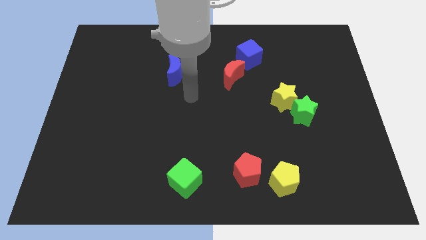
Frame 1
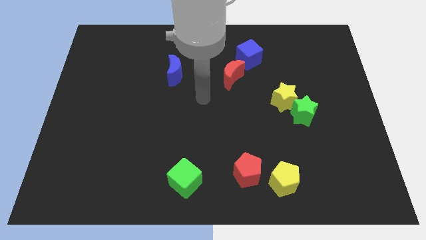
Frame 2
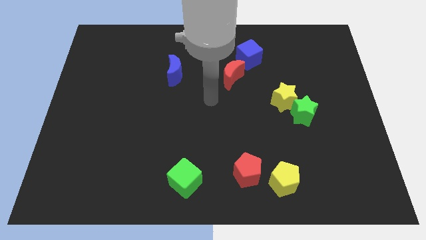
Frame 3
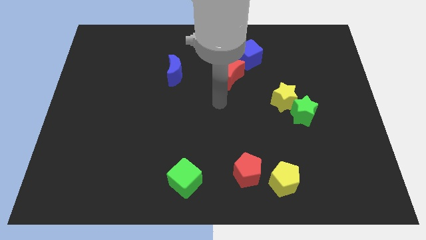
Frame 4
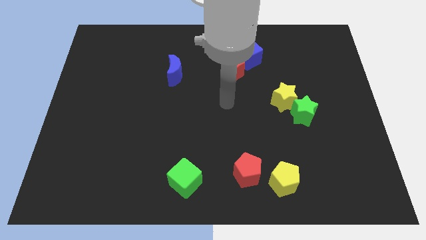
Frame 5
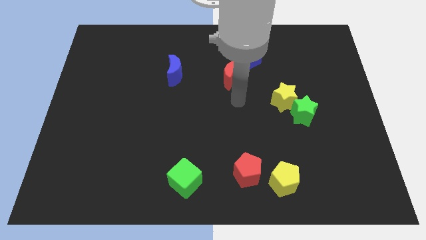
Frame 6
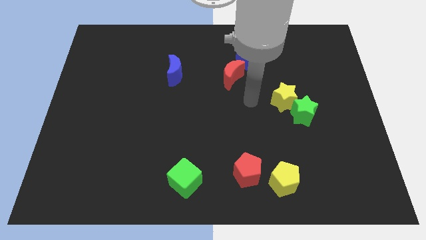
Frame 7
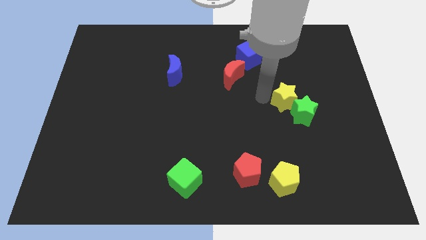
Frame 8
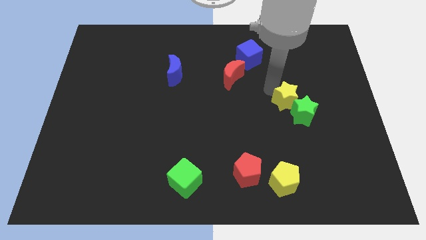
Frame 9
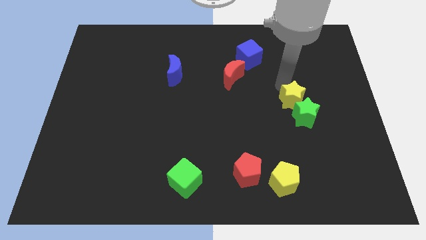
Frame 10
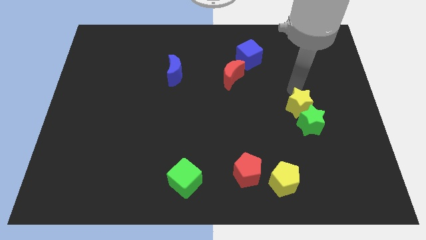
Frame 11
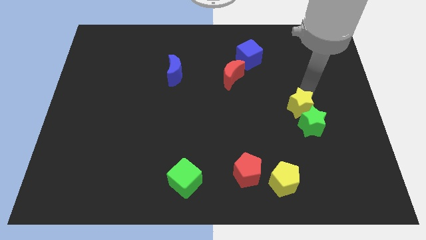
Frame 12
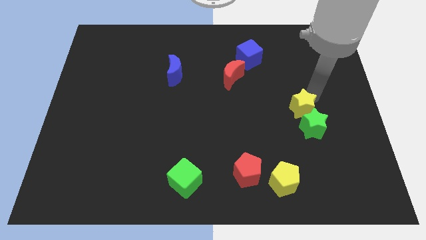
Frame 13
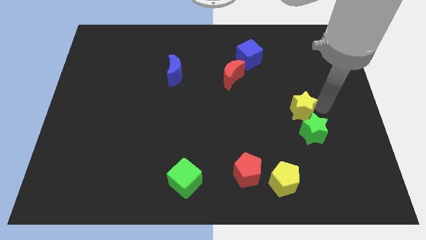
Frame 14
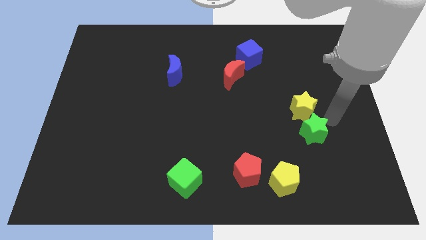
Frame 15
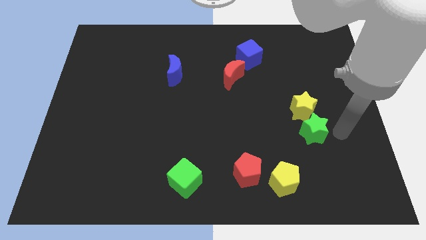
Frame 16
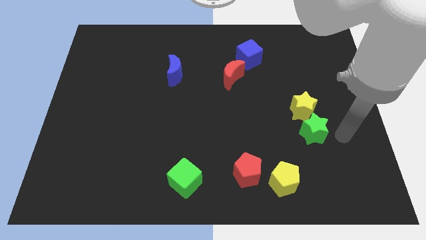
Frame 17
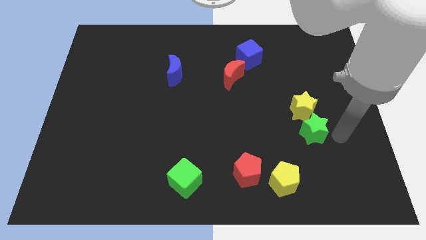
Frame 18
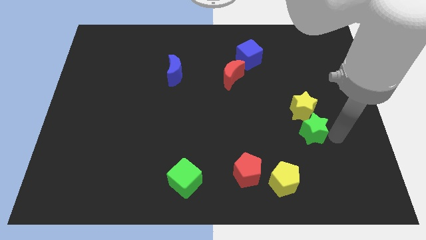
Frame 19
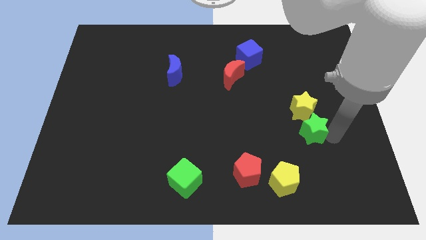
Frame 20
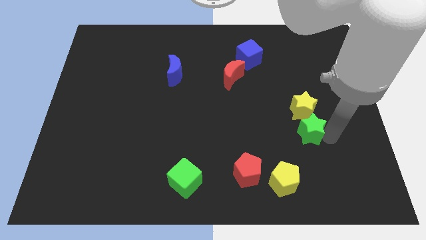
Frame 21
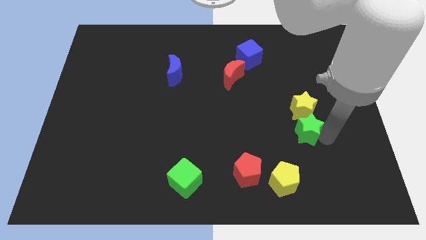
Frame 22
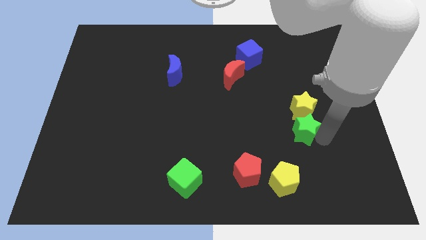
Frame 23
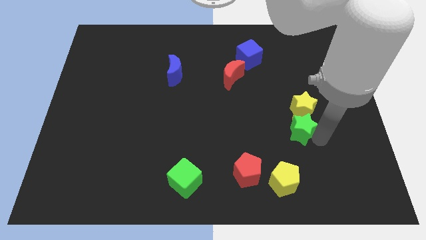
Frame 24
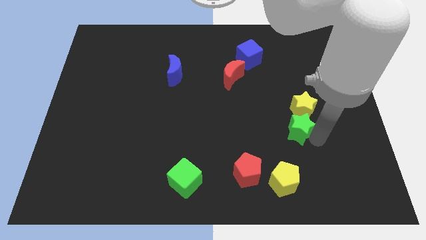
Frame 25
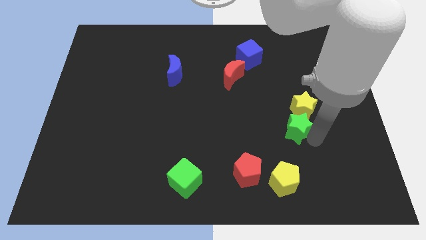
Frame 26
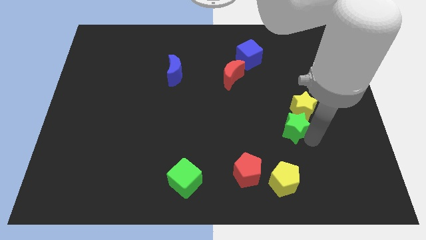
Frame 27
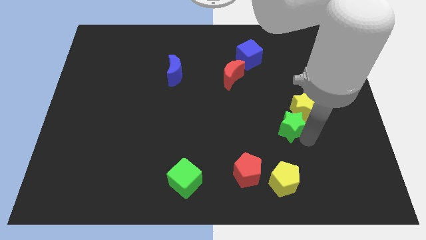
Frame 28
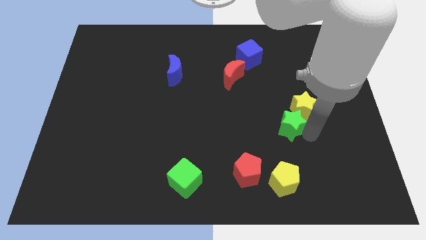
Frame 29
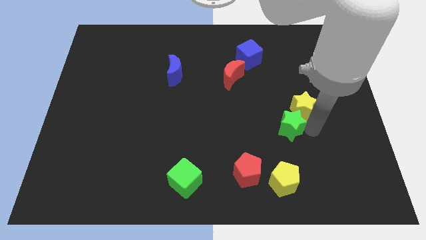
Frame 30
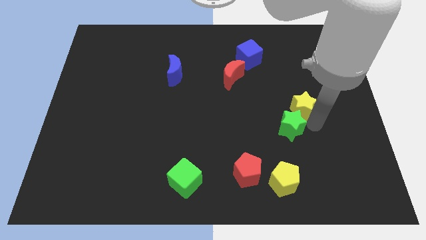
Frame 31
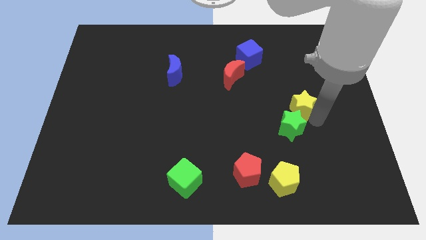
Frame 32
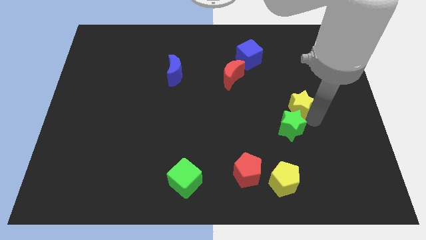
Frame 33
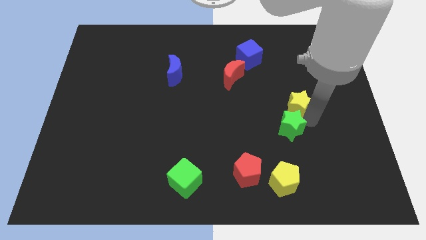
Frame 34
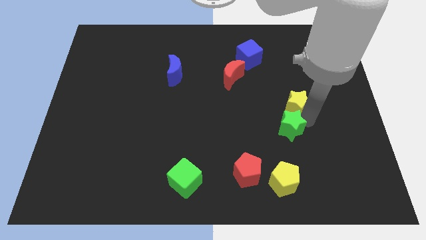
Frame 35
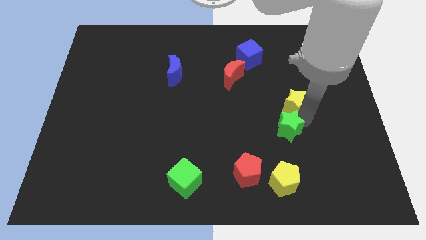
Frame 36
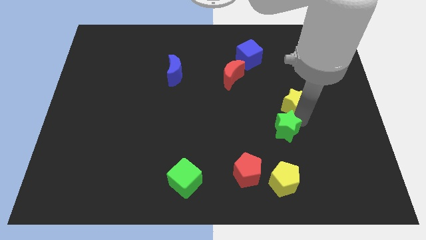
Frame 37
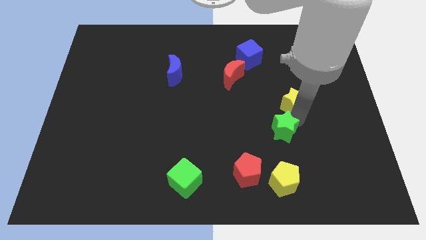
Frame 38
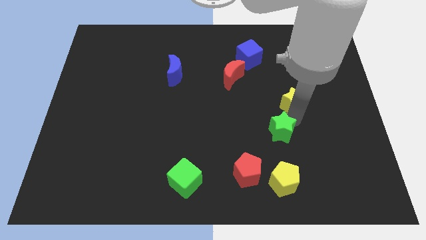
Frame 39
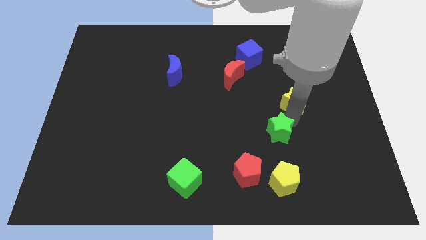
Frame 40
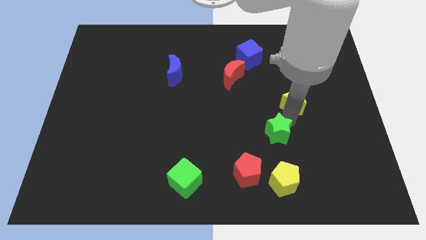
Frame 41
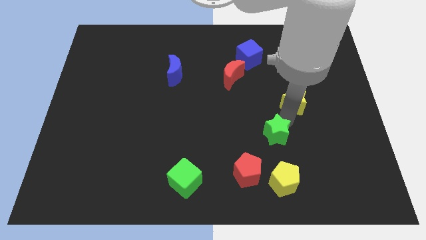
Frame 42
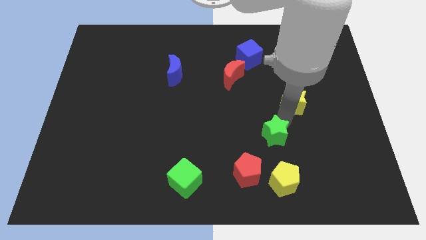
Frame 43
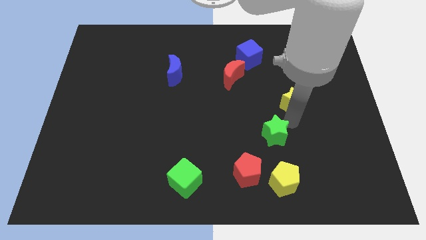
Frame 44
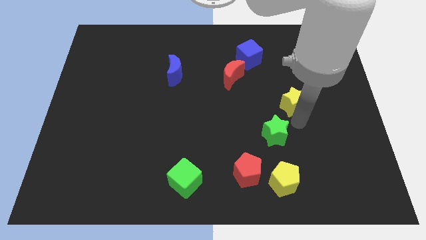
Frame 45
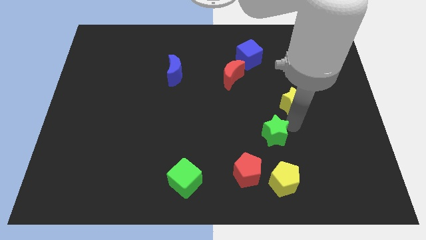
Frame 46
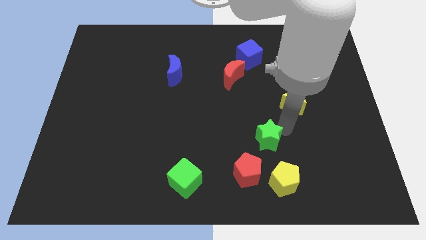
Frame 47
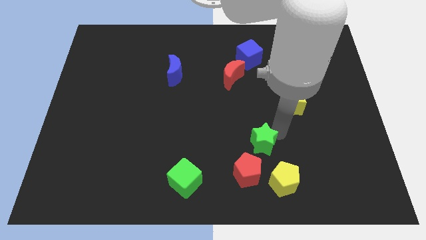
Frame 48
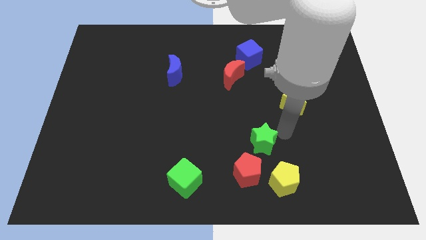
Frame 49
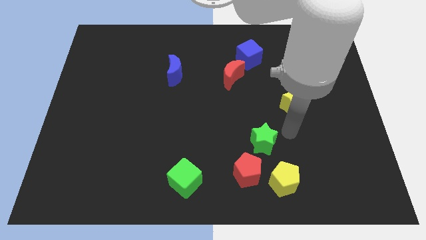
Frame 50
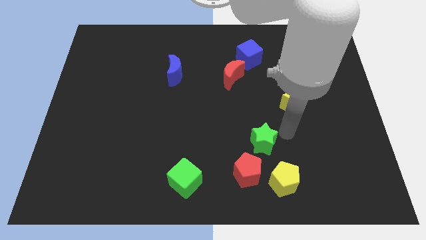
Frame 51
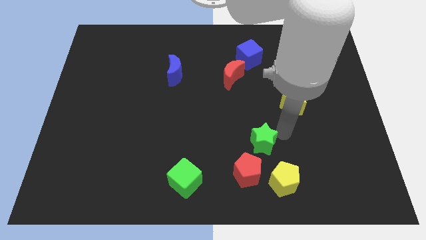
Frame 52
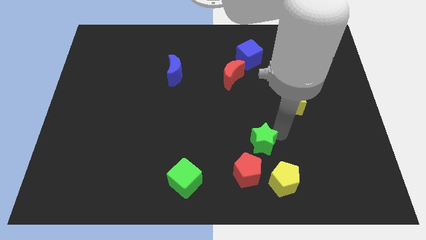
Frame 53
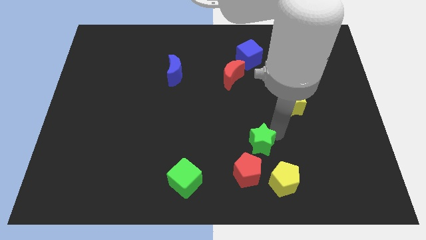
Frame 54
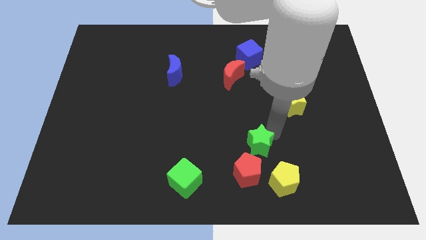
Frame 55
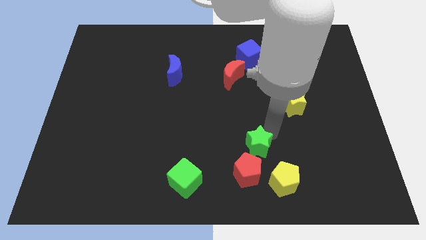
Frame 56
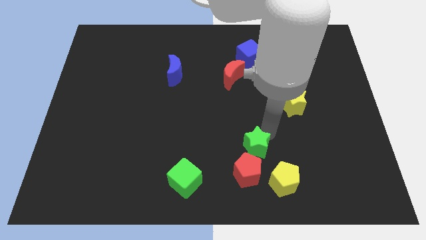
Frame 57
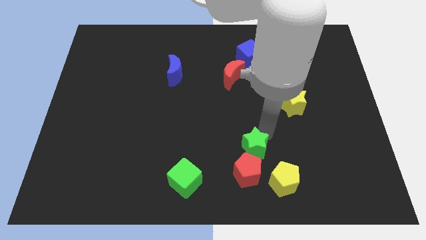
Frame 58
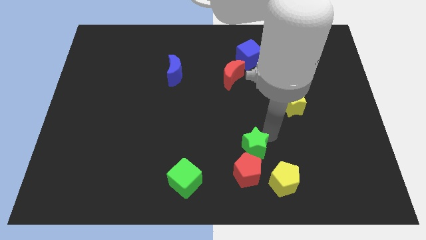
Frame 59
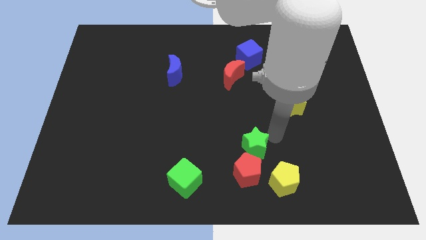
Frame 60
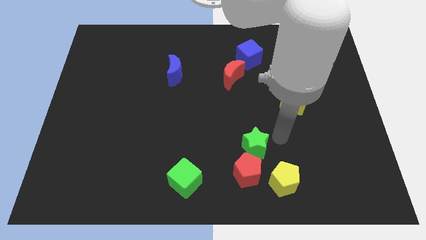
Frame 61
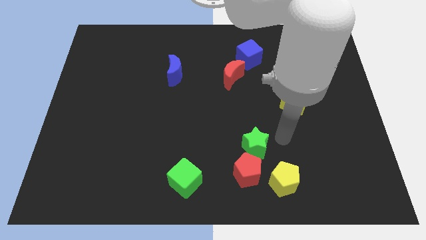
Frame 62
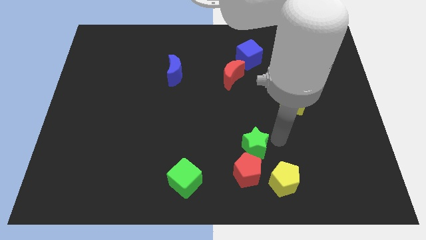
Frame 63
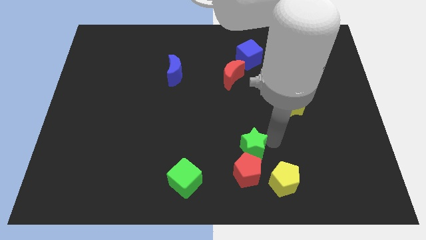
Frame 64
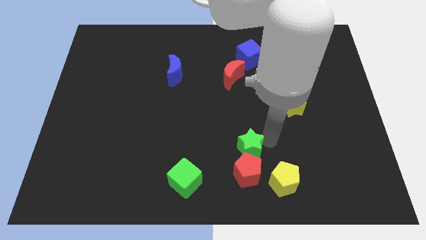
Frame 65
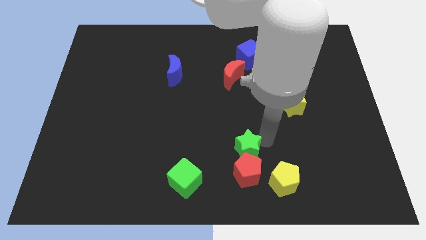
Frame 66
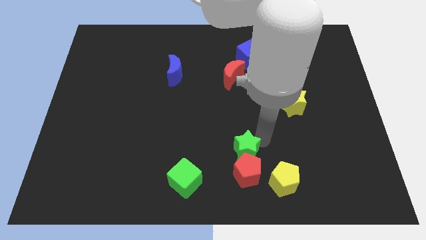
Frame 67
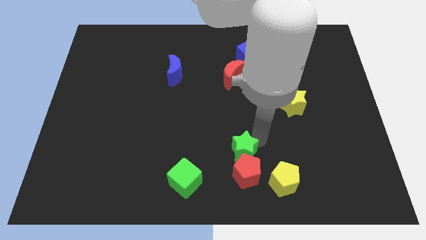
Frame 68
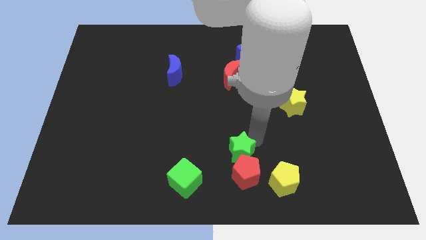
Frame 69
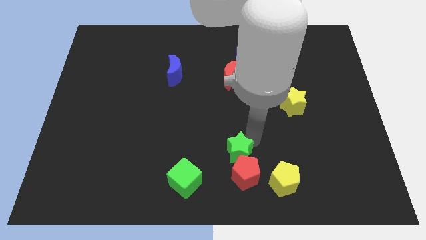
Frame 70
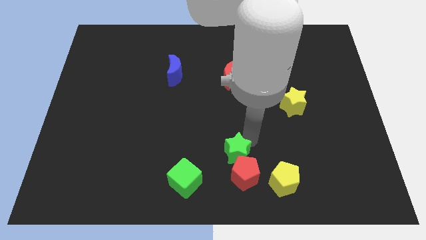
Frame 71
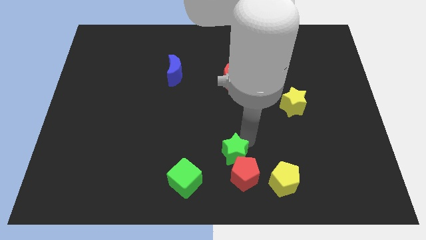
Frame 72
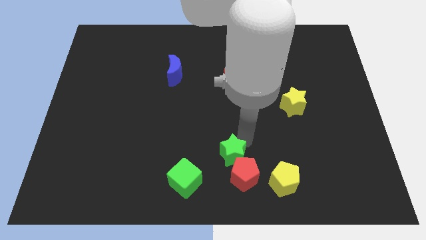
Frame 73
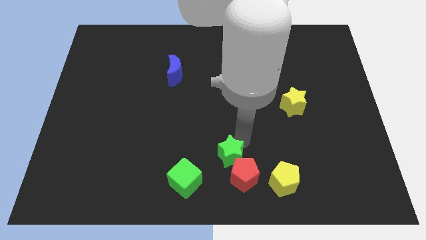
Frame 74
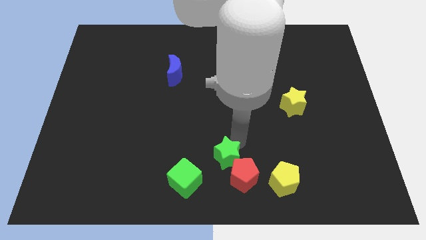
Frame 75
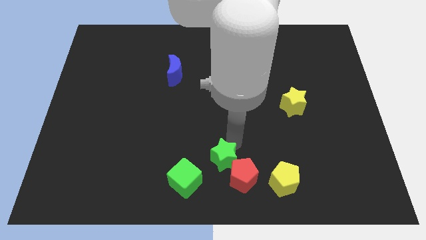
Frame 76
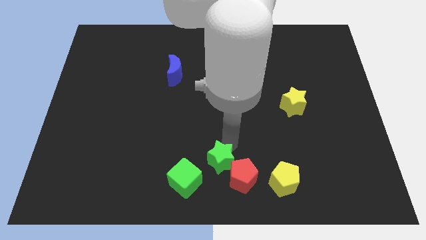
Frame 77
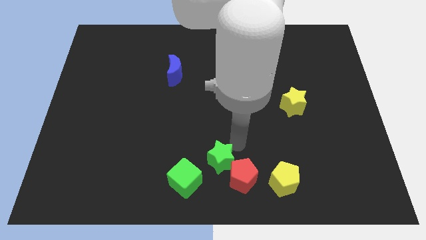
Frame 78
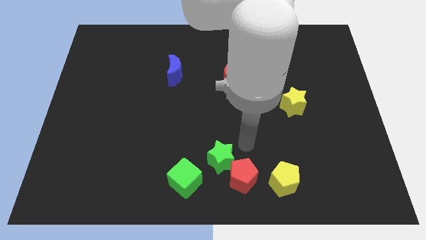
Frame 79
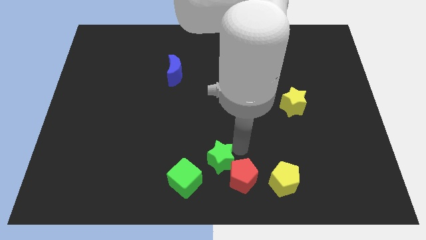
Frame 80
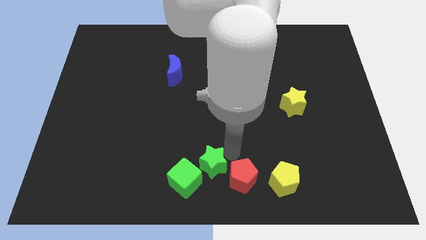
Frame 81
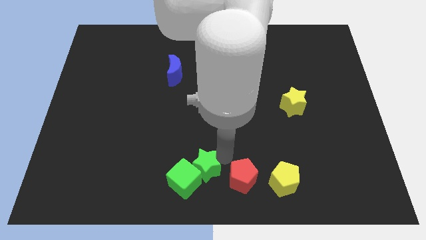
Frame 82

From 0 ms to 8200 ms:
move the green star towards the green cube
